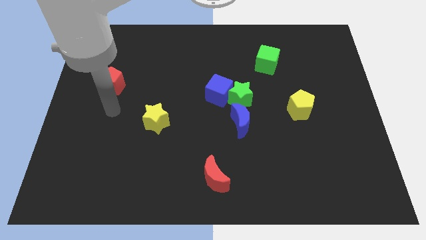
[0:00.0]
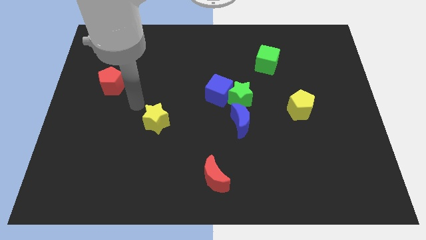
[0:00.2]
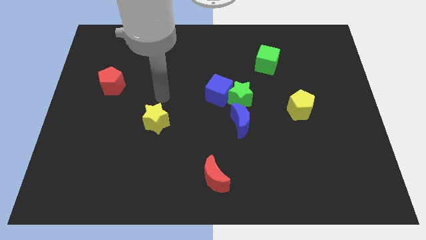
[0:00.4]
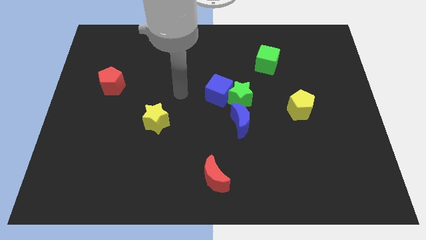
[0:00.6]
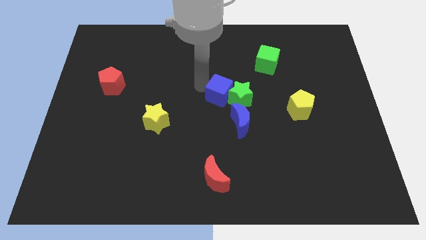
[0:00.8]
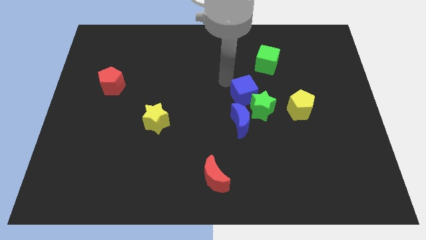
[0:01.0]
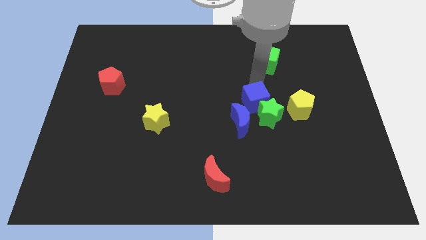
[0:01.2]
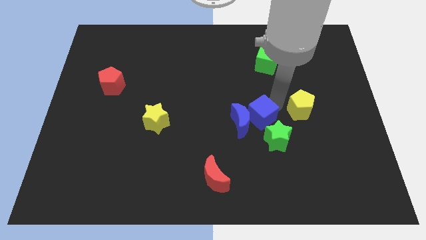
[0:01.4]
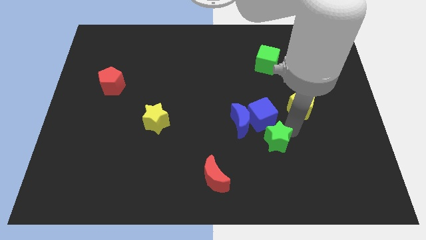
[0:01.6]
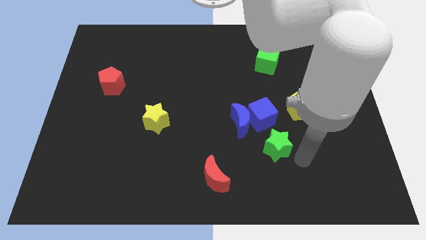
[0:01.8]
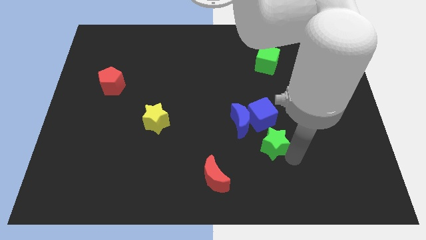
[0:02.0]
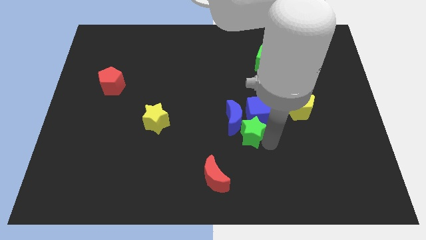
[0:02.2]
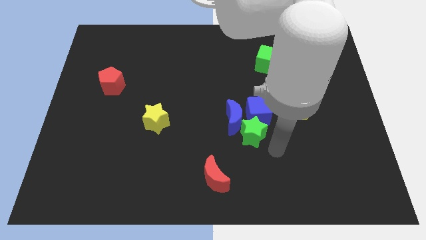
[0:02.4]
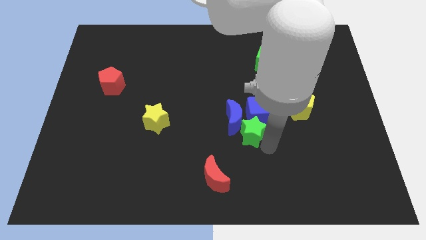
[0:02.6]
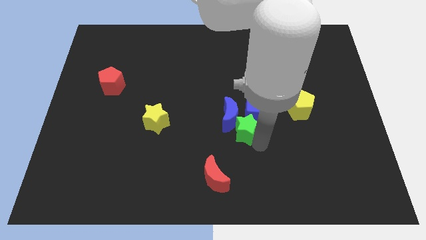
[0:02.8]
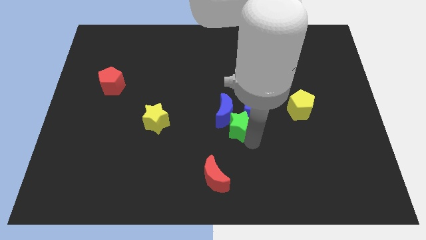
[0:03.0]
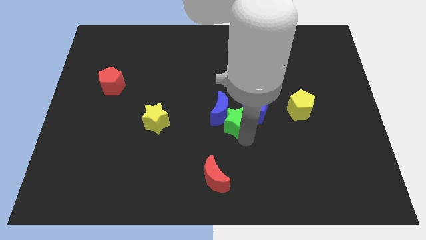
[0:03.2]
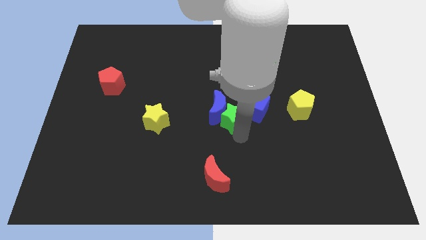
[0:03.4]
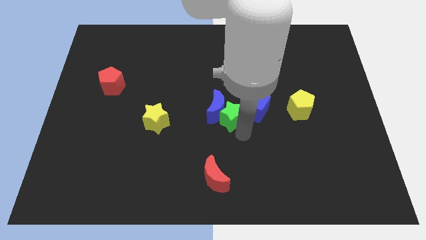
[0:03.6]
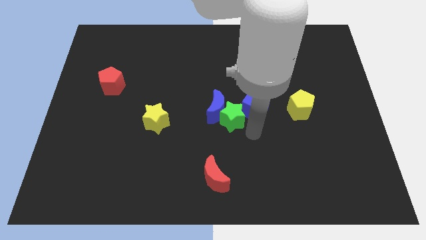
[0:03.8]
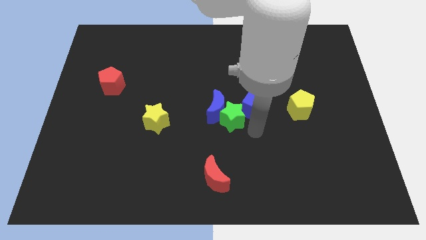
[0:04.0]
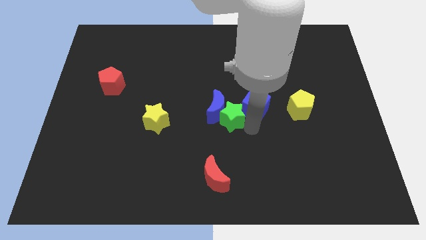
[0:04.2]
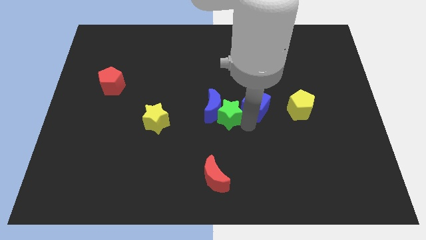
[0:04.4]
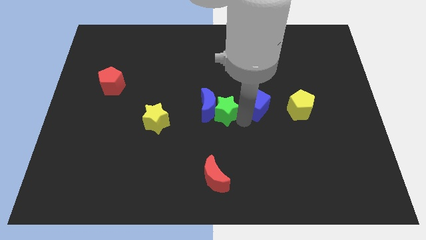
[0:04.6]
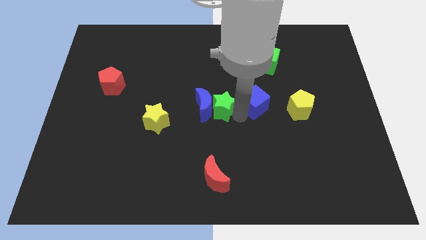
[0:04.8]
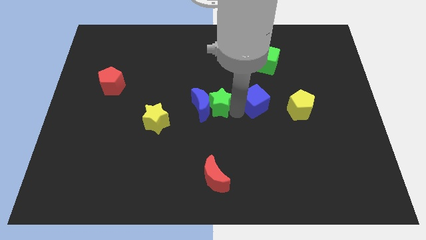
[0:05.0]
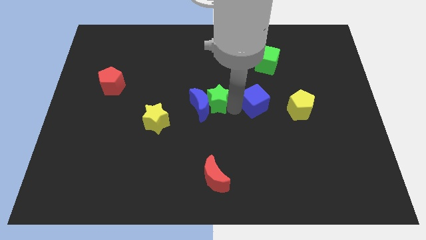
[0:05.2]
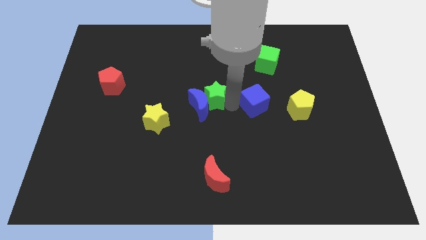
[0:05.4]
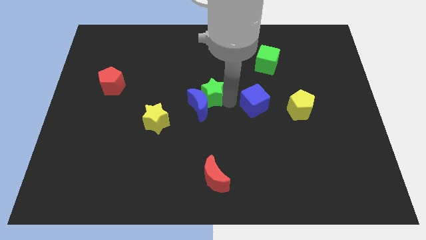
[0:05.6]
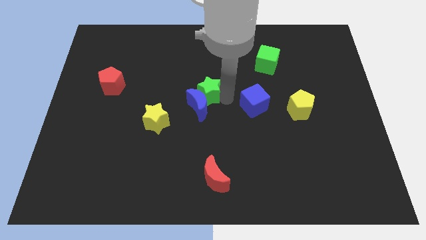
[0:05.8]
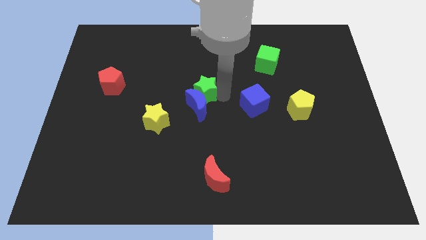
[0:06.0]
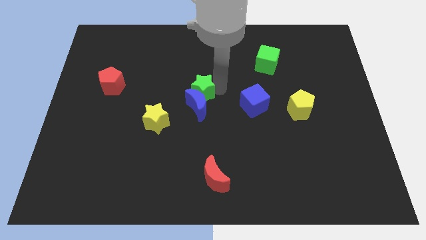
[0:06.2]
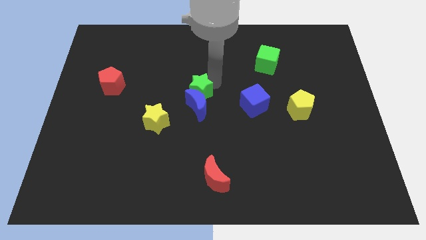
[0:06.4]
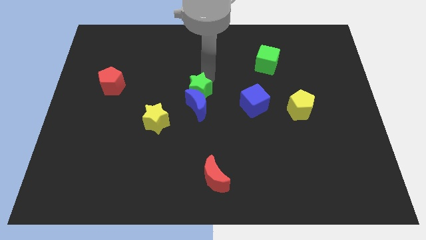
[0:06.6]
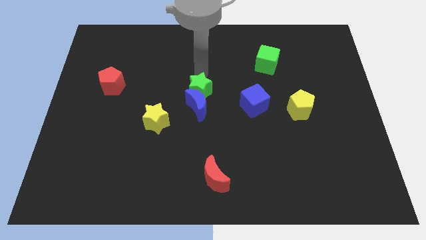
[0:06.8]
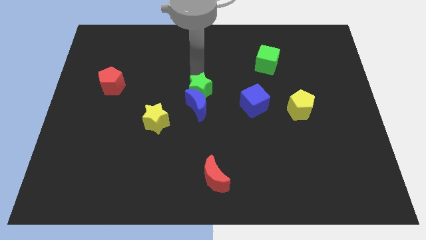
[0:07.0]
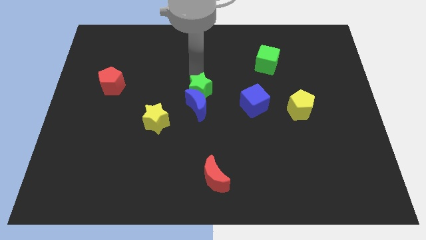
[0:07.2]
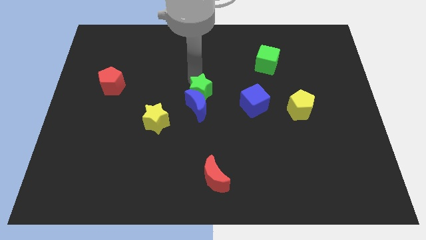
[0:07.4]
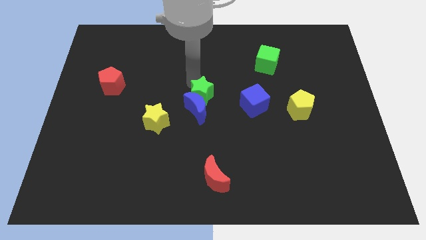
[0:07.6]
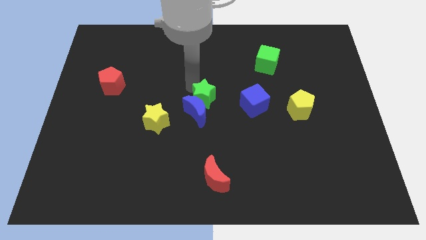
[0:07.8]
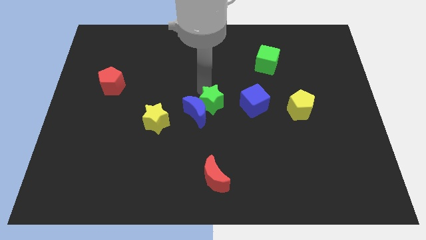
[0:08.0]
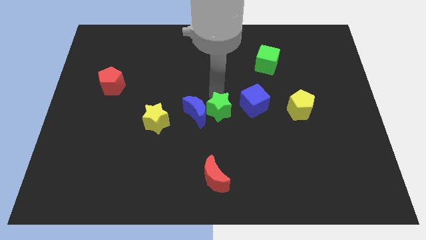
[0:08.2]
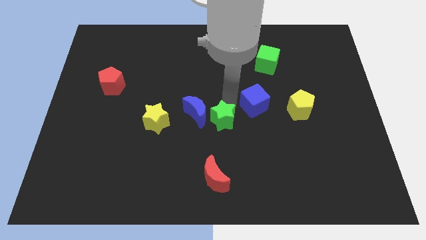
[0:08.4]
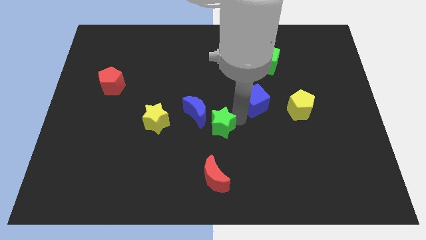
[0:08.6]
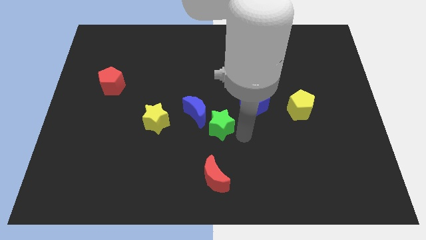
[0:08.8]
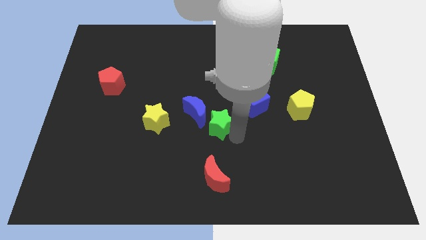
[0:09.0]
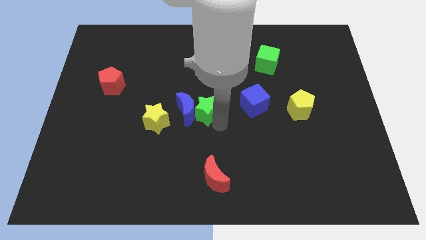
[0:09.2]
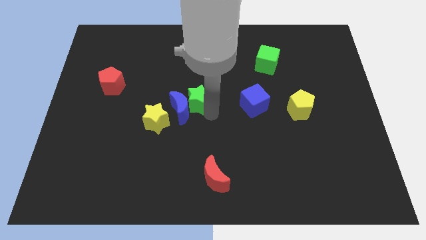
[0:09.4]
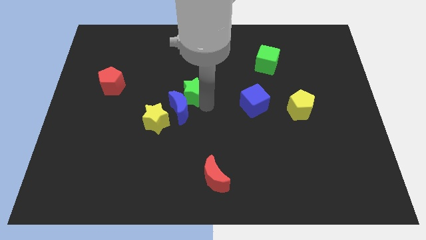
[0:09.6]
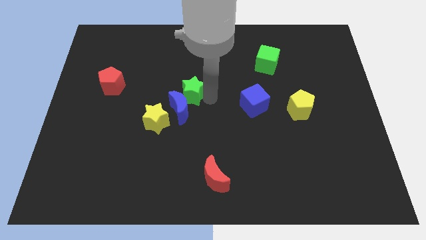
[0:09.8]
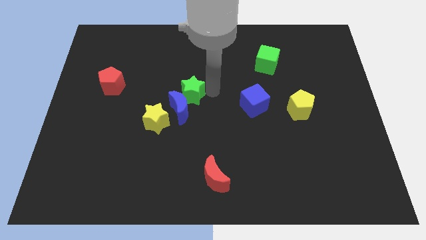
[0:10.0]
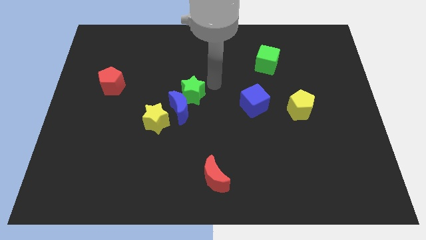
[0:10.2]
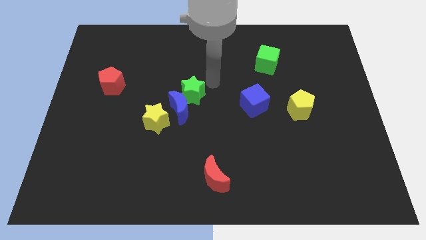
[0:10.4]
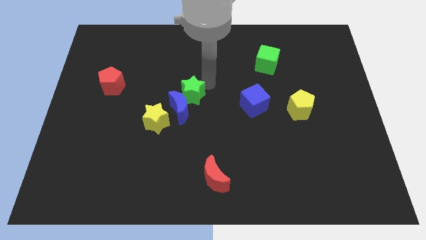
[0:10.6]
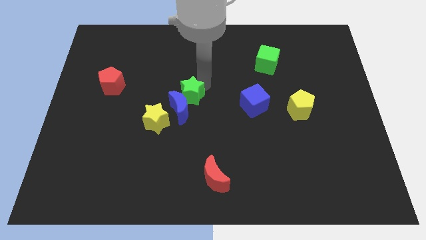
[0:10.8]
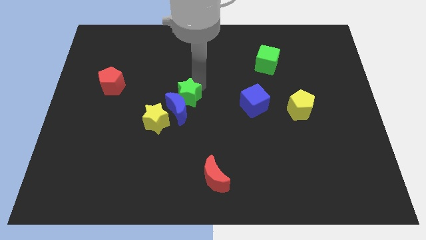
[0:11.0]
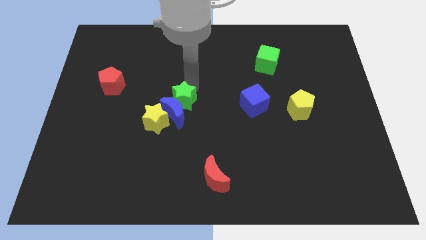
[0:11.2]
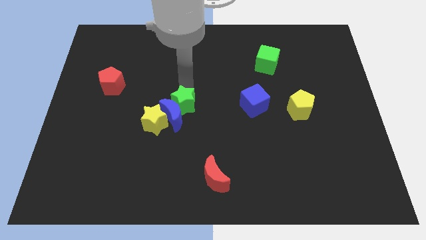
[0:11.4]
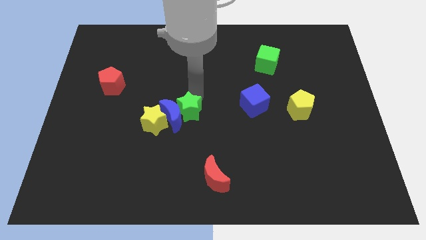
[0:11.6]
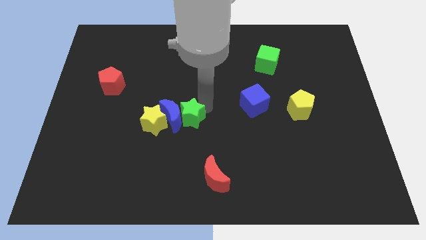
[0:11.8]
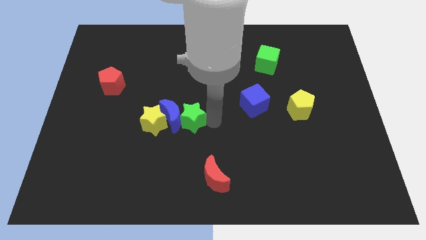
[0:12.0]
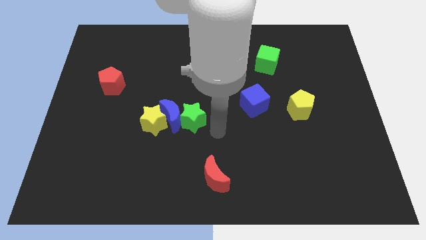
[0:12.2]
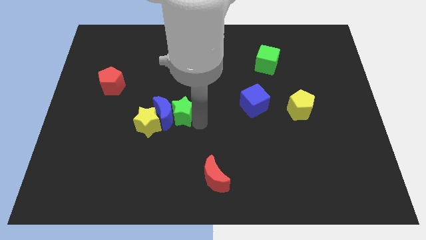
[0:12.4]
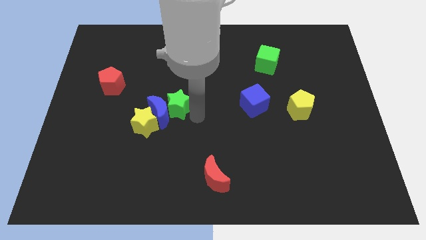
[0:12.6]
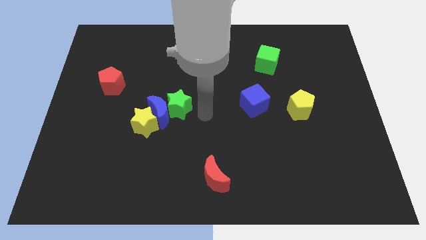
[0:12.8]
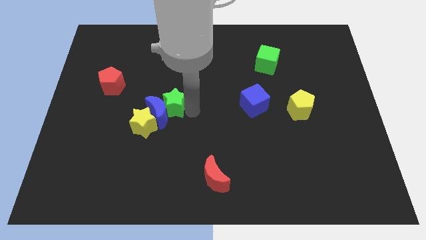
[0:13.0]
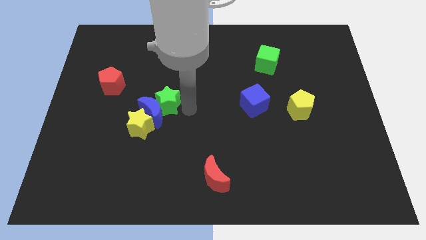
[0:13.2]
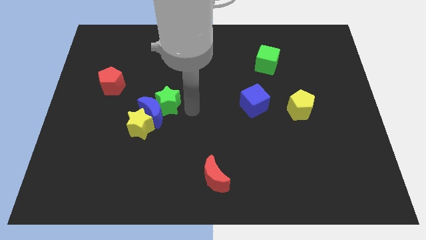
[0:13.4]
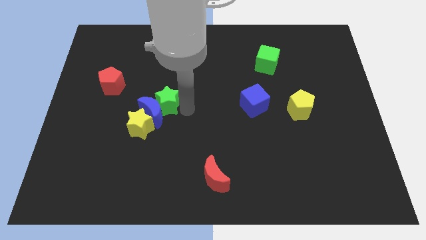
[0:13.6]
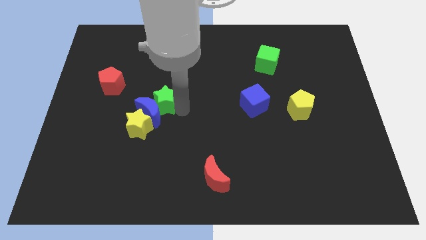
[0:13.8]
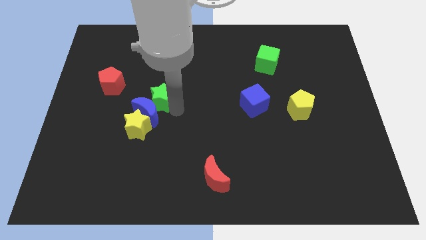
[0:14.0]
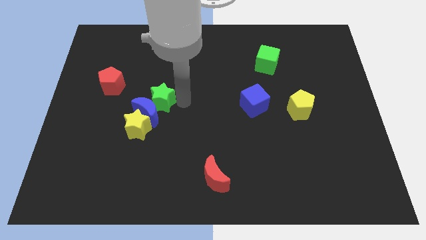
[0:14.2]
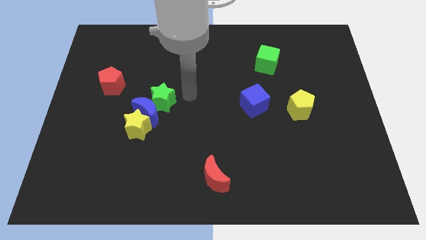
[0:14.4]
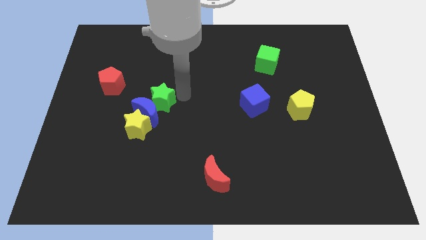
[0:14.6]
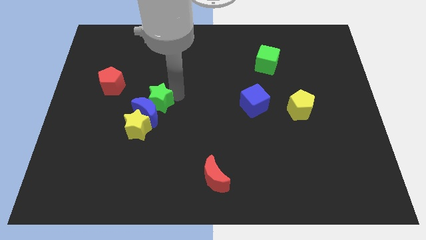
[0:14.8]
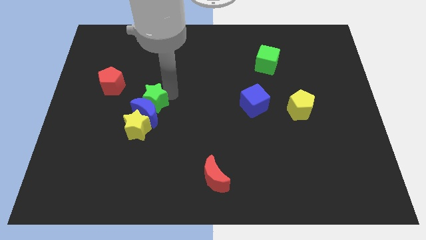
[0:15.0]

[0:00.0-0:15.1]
push the green star left
